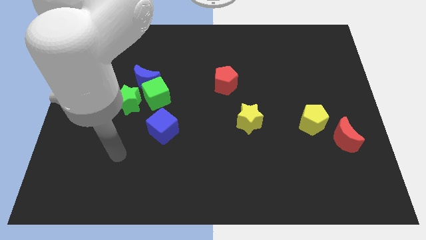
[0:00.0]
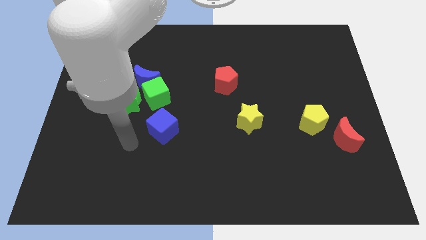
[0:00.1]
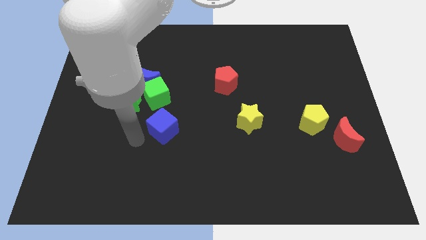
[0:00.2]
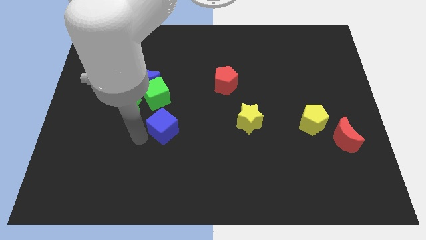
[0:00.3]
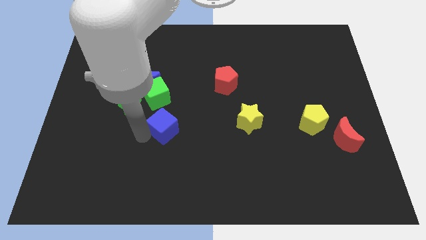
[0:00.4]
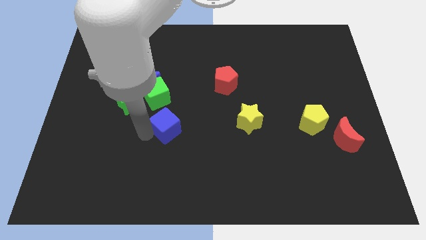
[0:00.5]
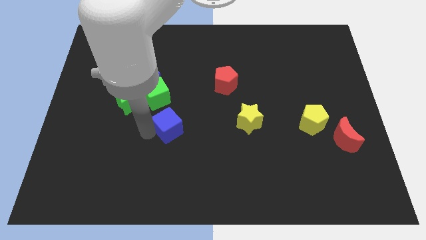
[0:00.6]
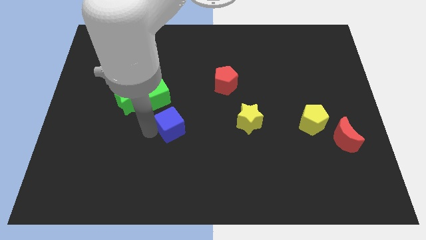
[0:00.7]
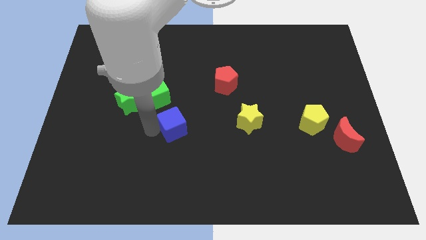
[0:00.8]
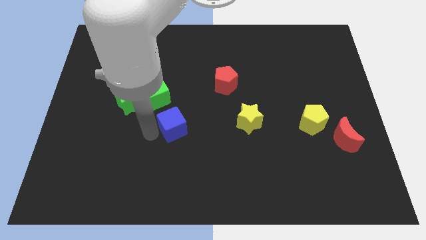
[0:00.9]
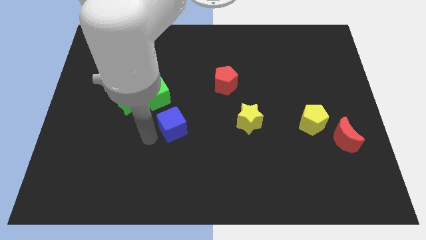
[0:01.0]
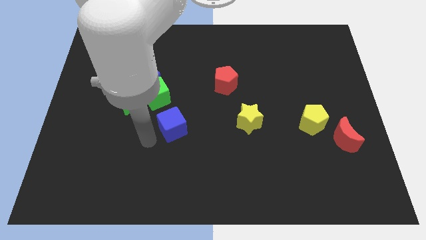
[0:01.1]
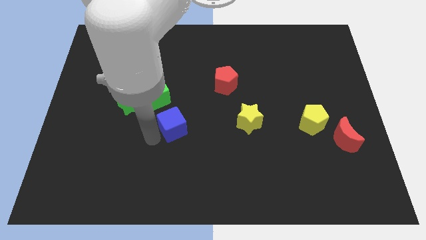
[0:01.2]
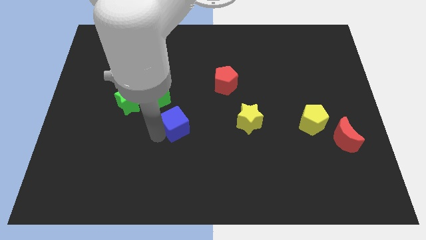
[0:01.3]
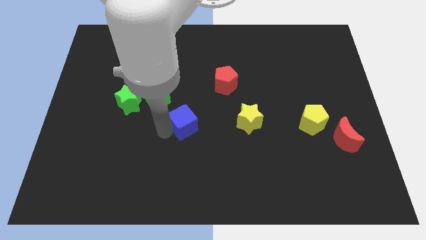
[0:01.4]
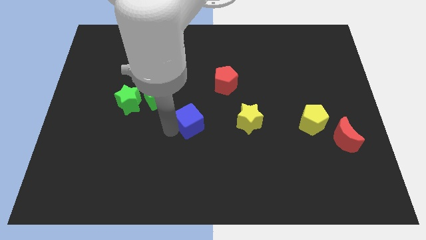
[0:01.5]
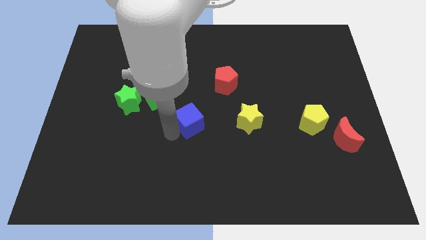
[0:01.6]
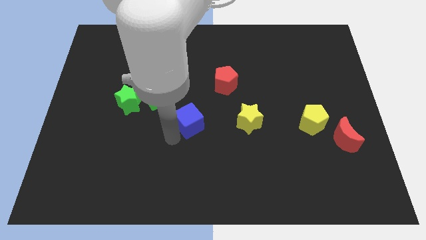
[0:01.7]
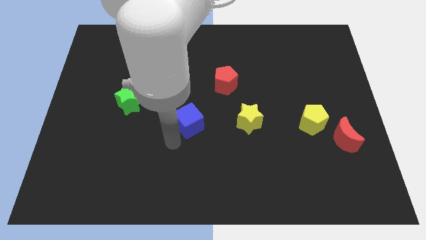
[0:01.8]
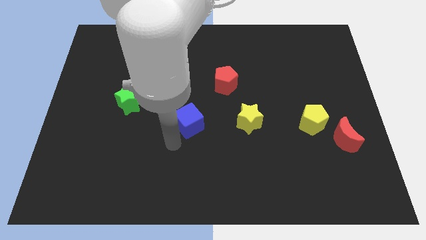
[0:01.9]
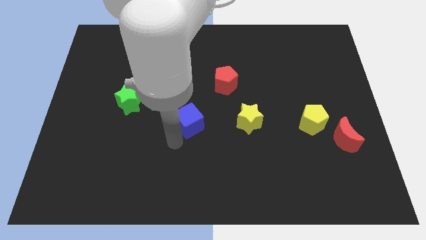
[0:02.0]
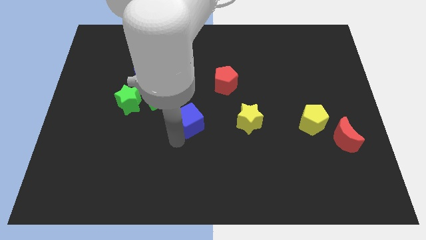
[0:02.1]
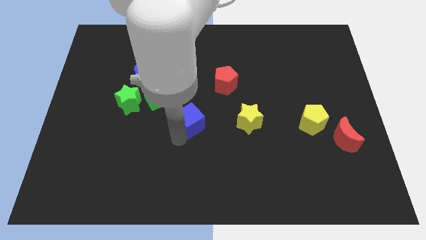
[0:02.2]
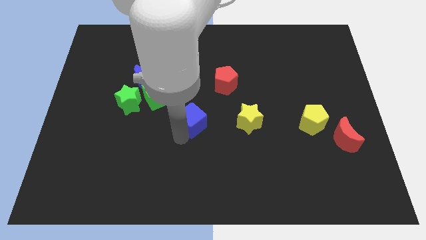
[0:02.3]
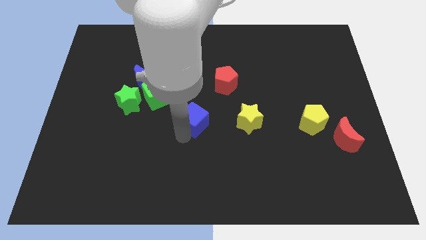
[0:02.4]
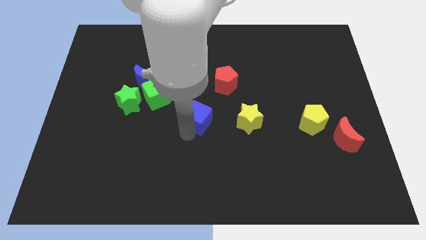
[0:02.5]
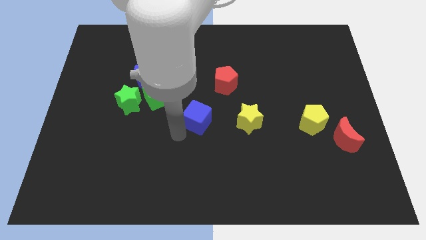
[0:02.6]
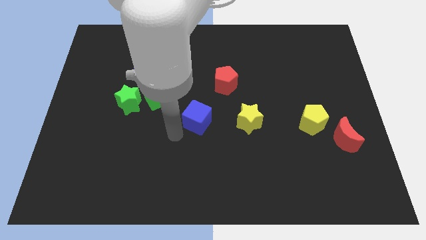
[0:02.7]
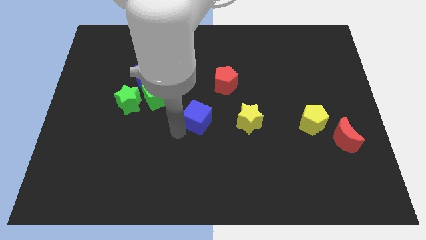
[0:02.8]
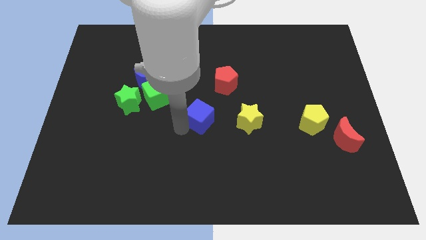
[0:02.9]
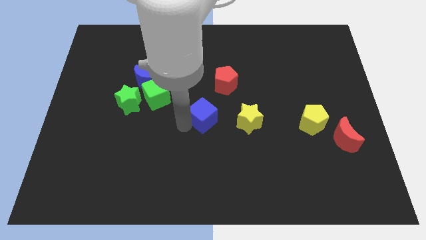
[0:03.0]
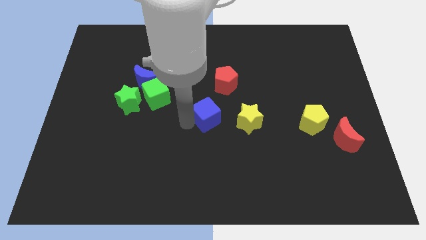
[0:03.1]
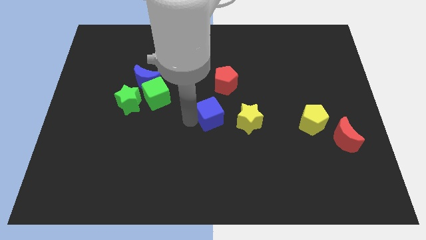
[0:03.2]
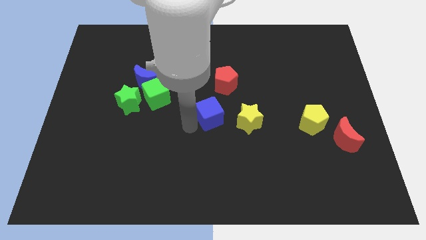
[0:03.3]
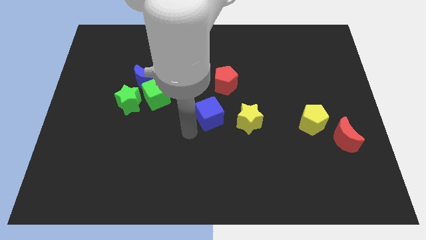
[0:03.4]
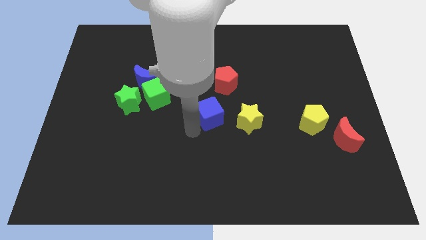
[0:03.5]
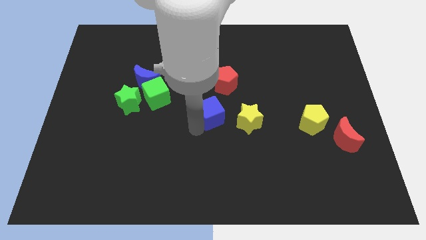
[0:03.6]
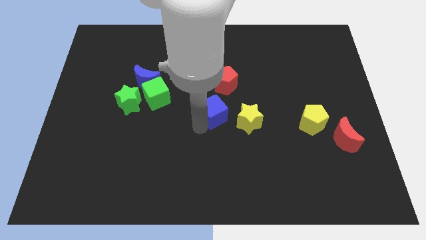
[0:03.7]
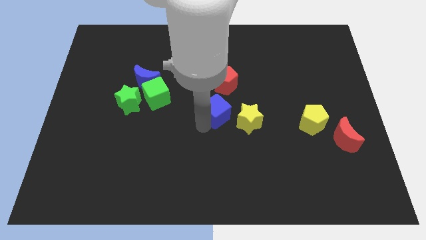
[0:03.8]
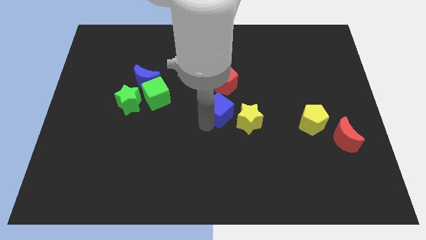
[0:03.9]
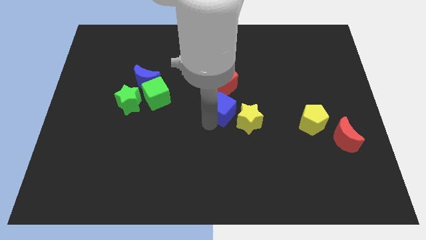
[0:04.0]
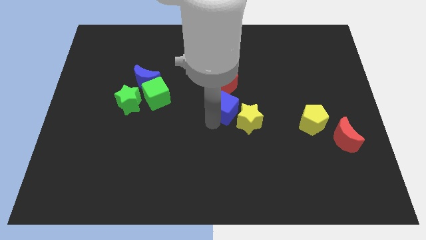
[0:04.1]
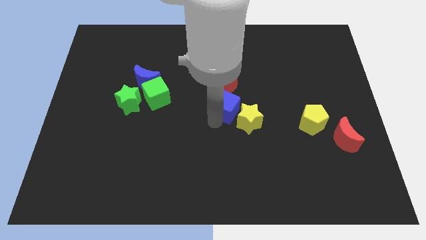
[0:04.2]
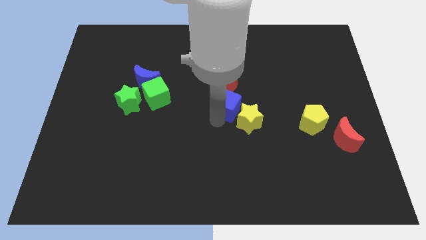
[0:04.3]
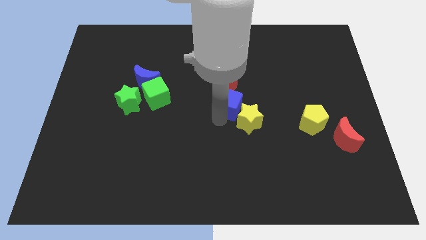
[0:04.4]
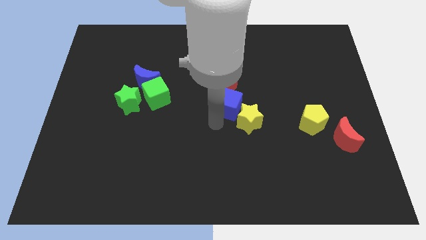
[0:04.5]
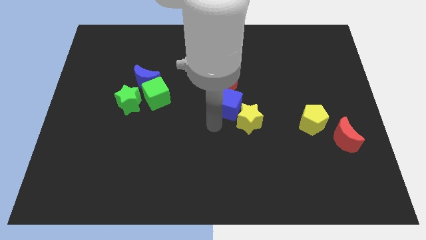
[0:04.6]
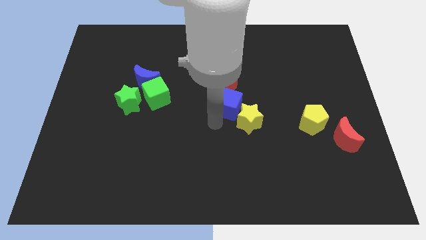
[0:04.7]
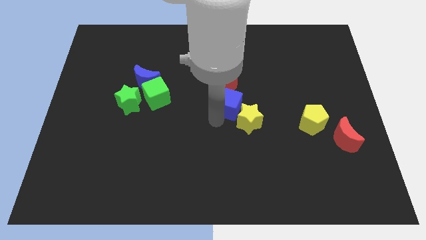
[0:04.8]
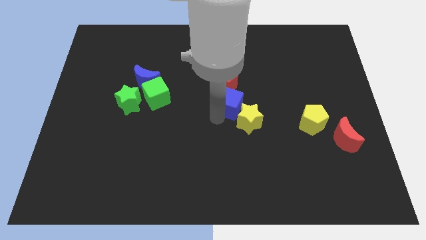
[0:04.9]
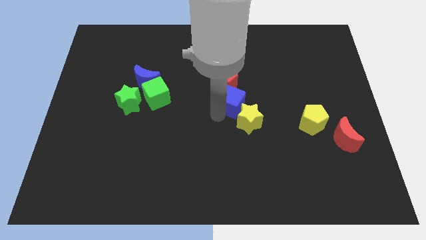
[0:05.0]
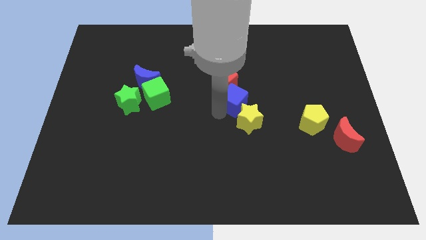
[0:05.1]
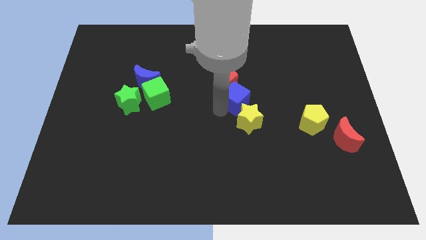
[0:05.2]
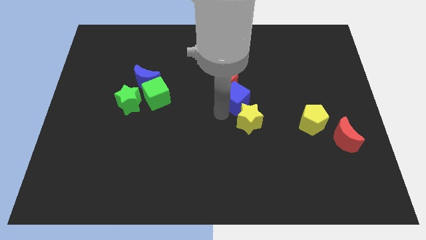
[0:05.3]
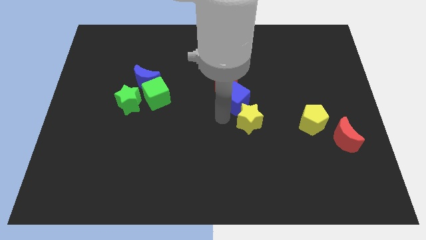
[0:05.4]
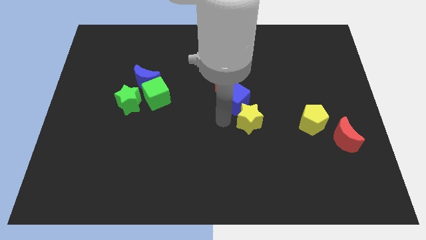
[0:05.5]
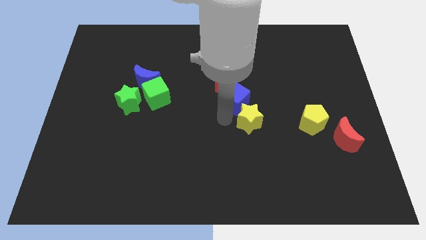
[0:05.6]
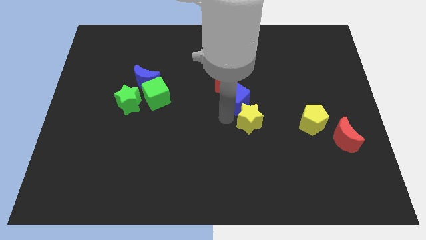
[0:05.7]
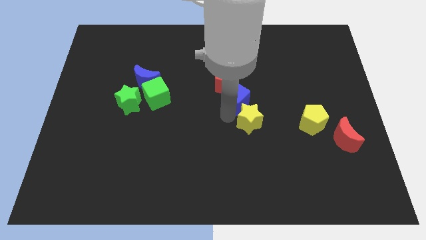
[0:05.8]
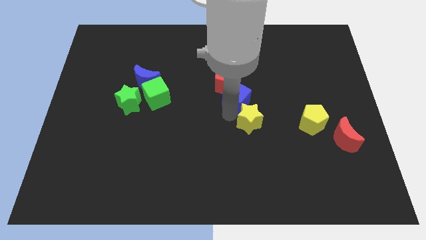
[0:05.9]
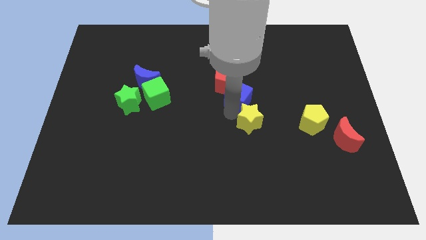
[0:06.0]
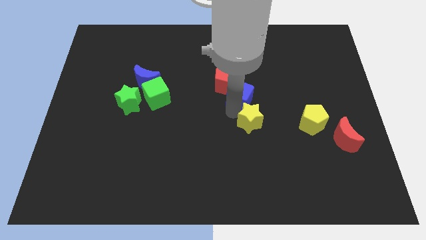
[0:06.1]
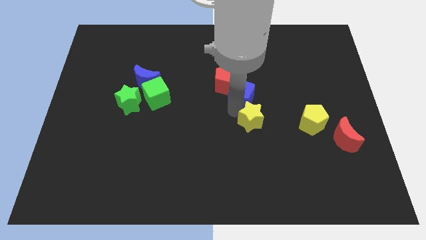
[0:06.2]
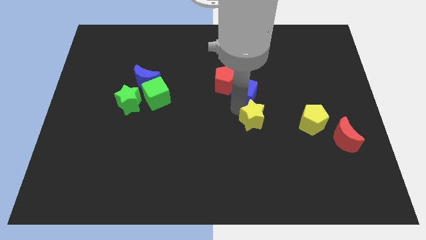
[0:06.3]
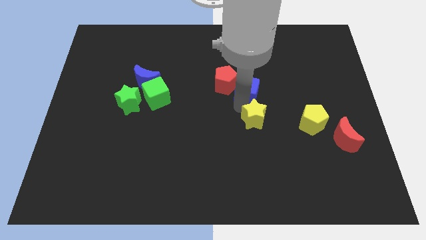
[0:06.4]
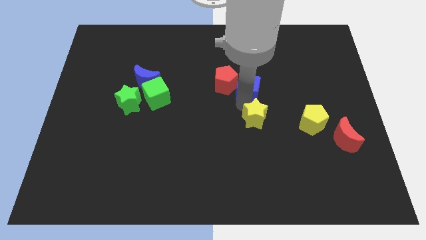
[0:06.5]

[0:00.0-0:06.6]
slide the blue cube up and to the right diagonally

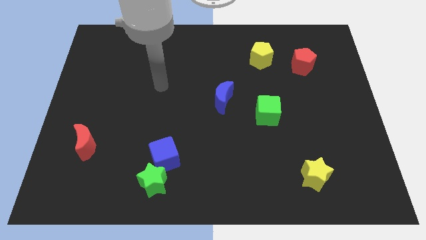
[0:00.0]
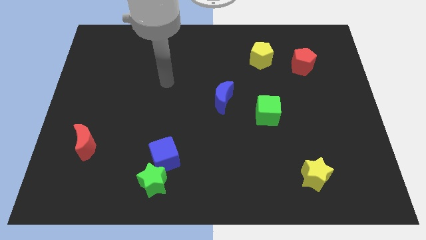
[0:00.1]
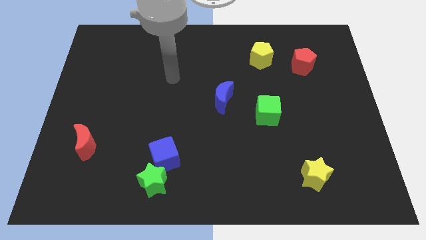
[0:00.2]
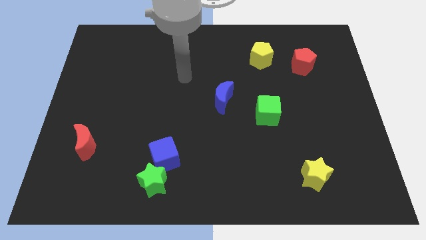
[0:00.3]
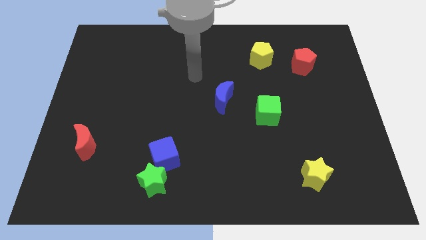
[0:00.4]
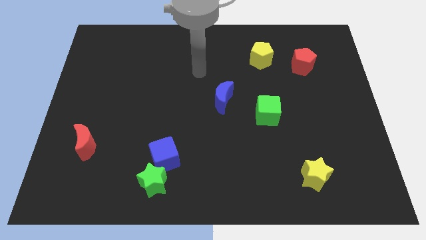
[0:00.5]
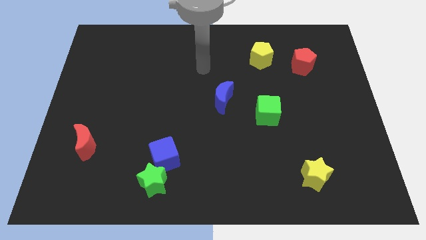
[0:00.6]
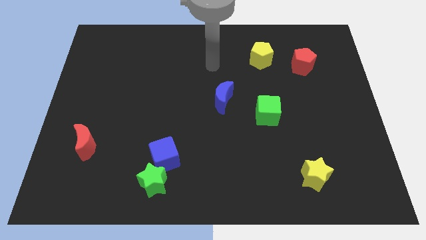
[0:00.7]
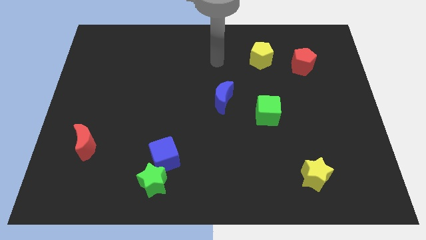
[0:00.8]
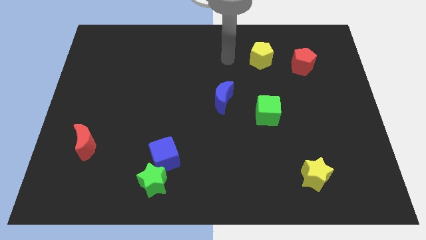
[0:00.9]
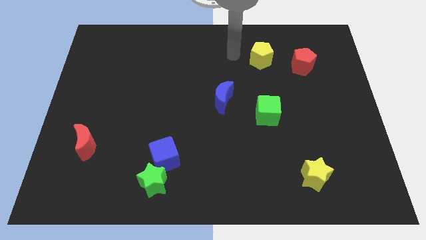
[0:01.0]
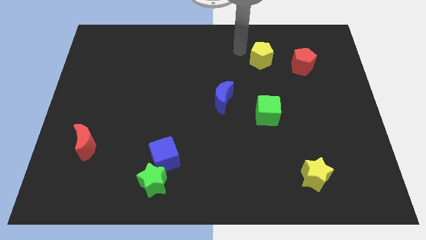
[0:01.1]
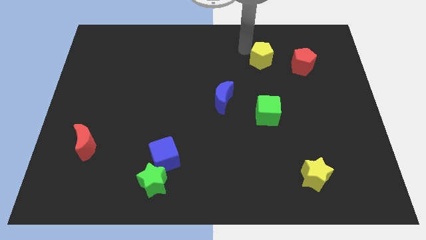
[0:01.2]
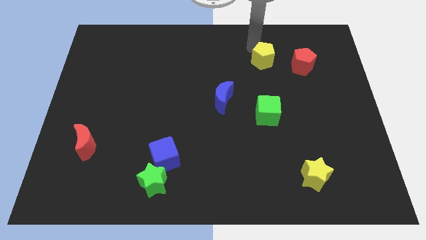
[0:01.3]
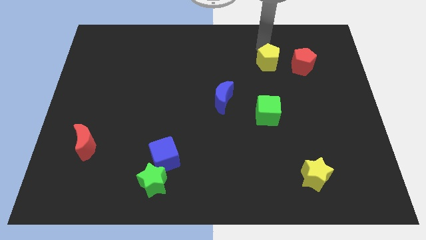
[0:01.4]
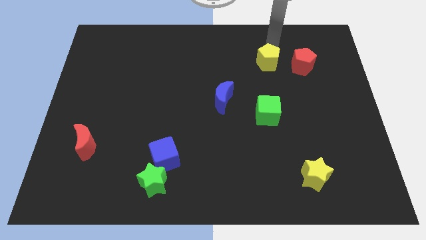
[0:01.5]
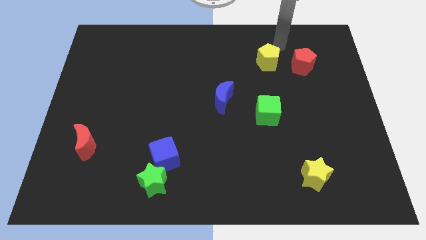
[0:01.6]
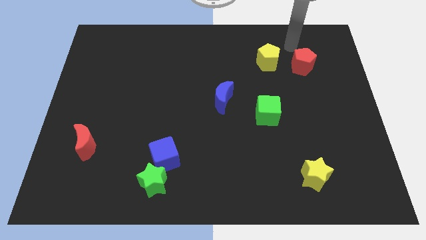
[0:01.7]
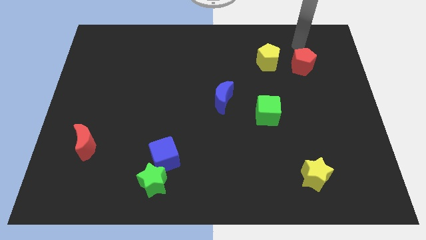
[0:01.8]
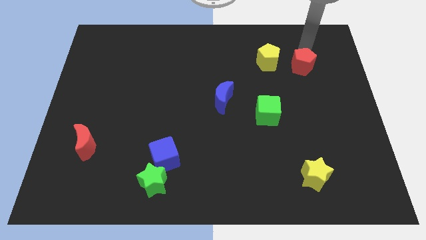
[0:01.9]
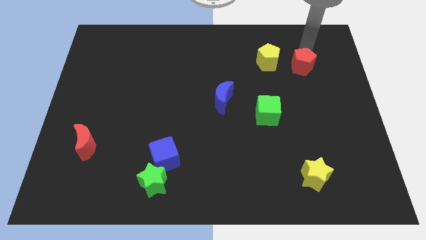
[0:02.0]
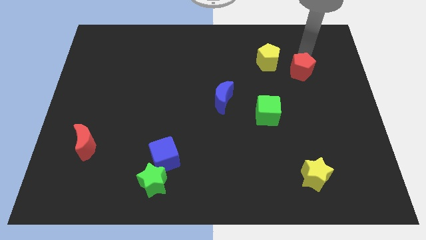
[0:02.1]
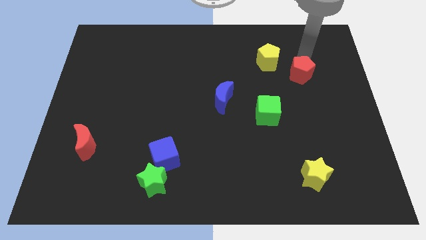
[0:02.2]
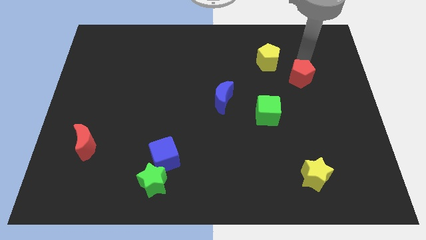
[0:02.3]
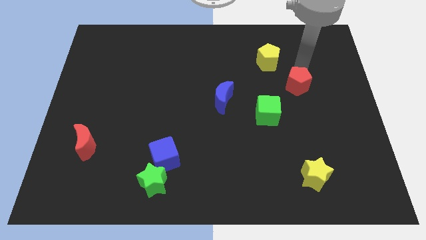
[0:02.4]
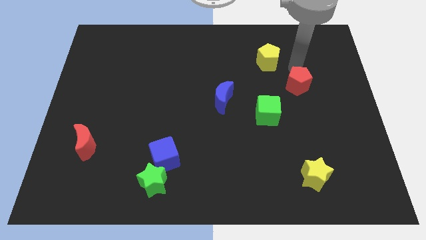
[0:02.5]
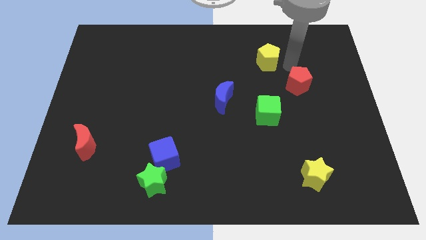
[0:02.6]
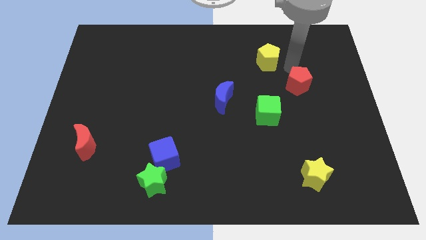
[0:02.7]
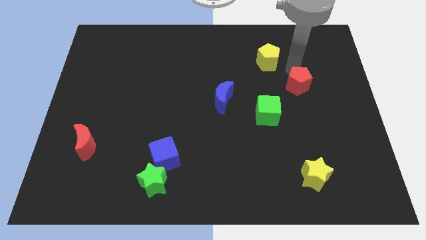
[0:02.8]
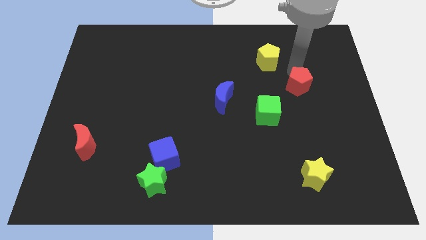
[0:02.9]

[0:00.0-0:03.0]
slide the red pentagon somewhat down
